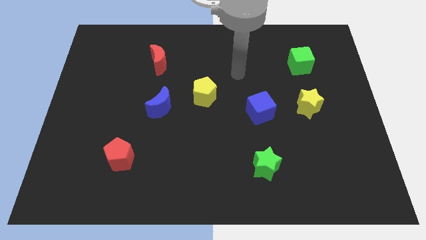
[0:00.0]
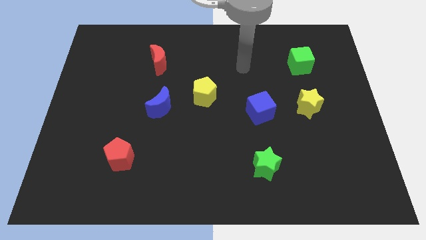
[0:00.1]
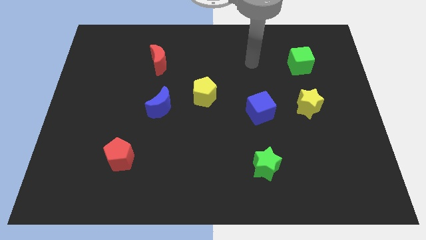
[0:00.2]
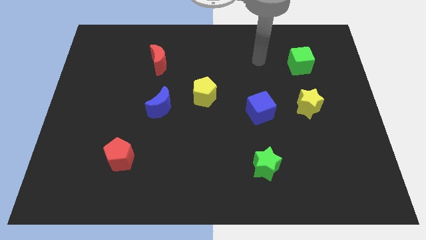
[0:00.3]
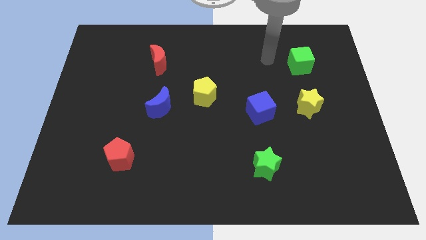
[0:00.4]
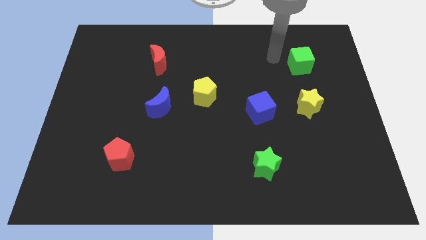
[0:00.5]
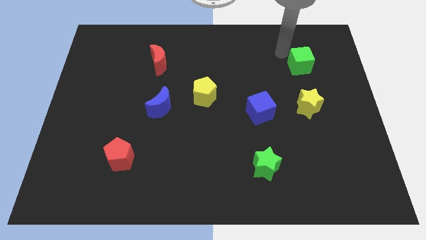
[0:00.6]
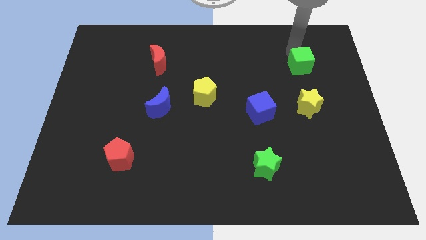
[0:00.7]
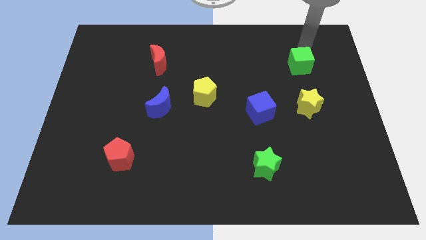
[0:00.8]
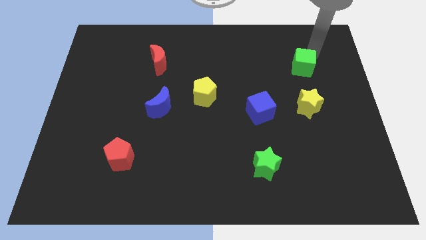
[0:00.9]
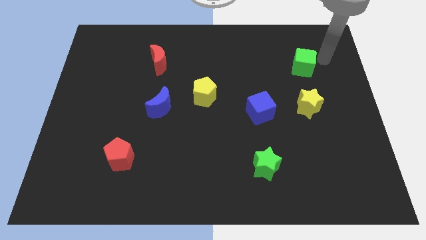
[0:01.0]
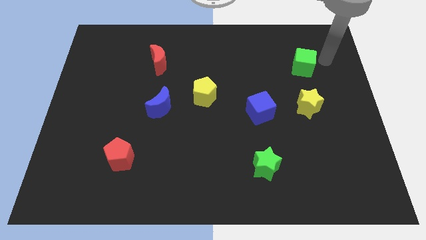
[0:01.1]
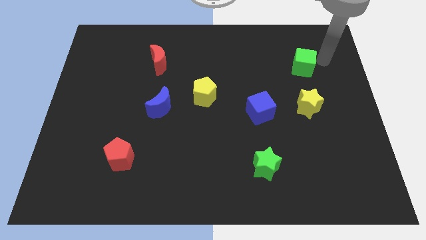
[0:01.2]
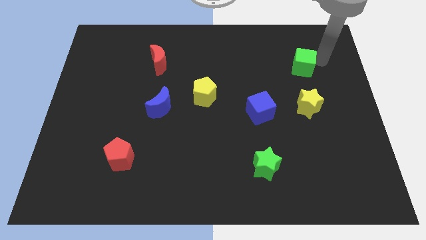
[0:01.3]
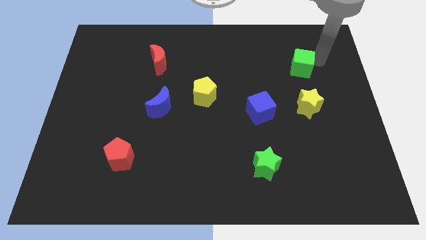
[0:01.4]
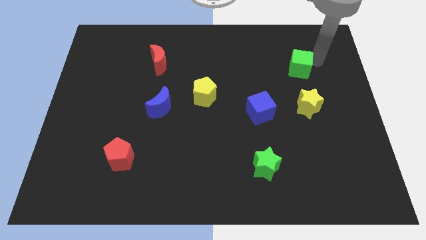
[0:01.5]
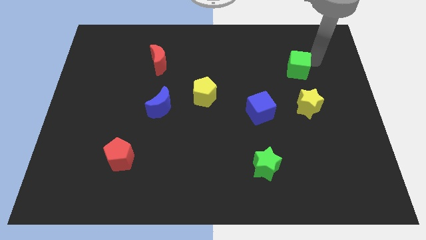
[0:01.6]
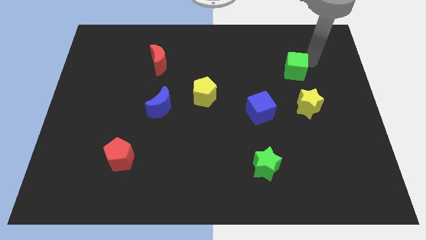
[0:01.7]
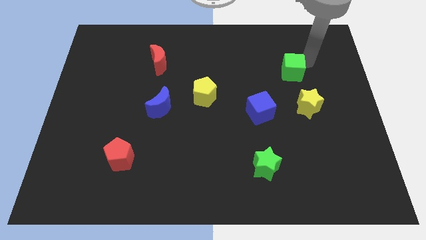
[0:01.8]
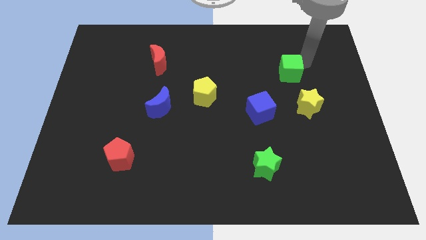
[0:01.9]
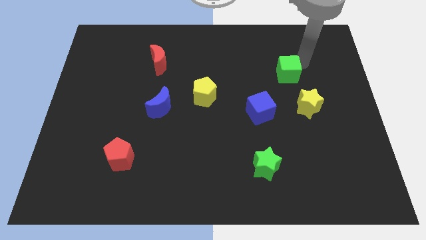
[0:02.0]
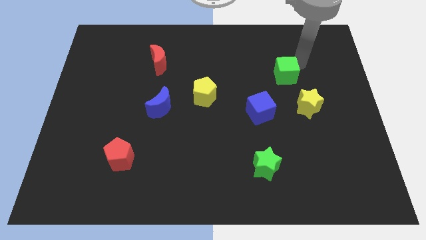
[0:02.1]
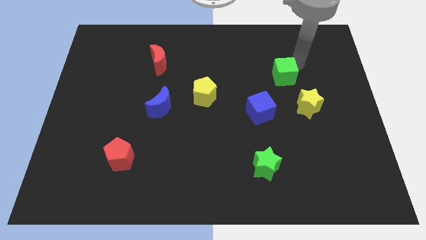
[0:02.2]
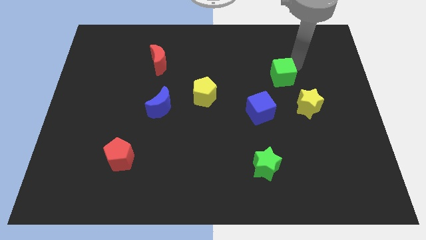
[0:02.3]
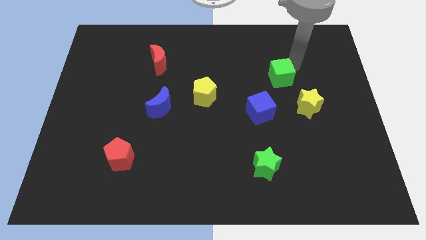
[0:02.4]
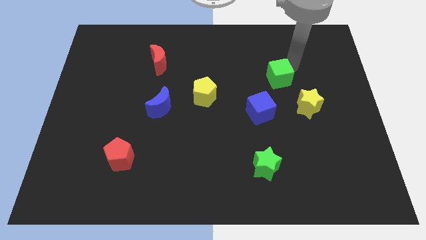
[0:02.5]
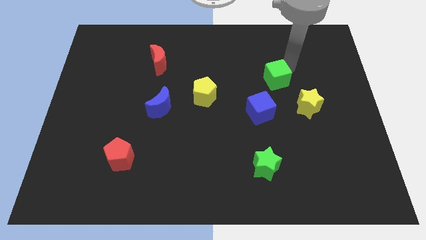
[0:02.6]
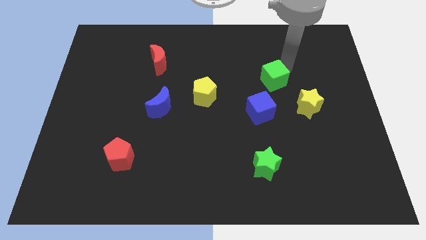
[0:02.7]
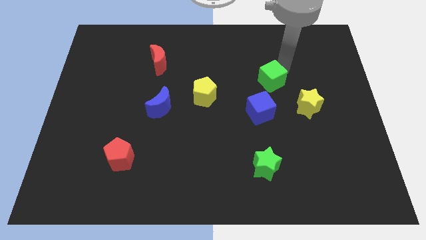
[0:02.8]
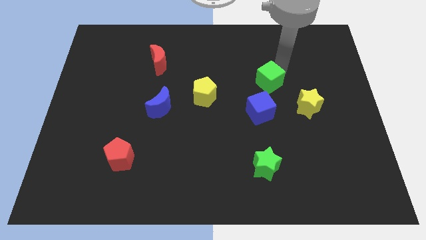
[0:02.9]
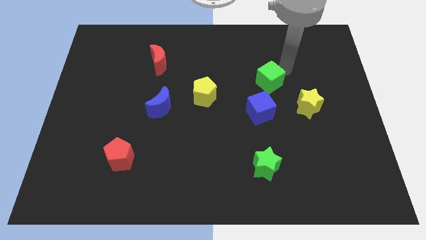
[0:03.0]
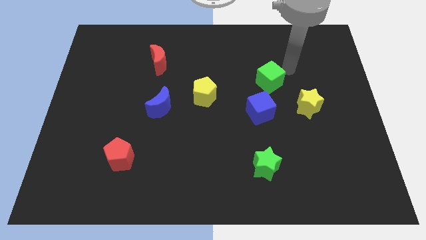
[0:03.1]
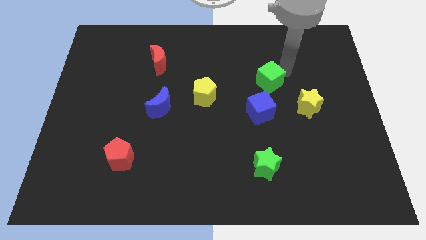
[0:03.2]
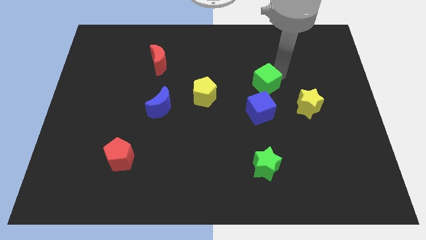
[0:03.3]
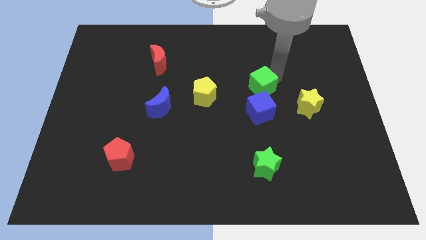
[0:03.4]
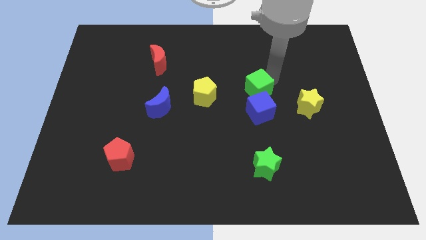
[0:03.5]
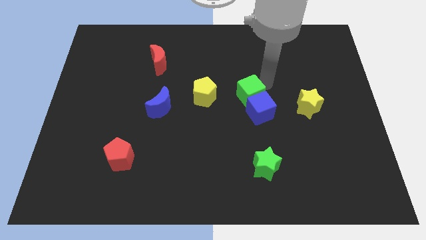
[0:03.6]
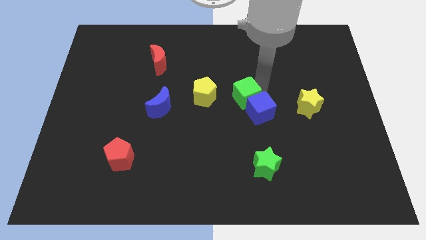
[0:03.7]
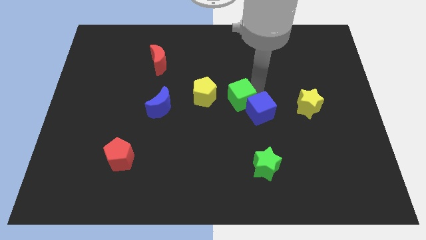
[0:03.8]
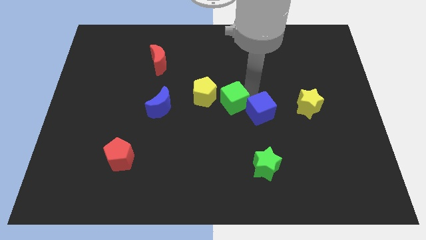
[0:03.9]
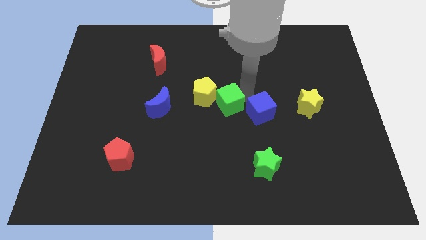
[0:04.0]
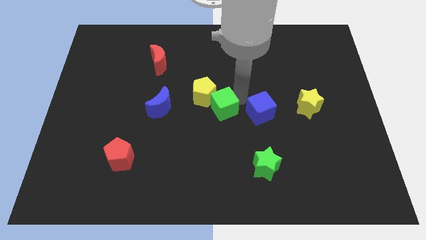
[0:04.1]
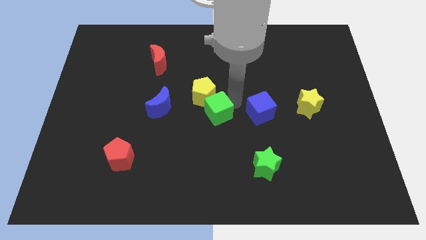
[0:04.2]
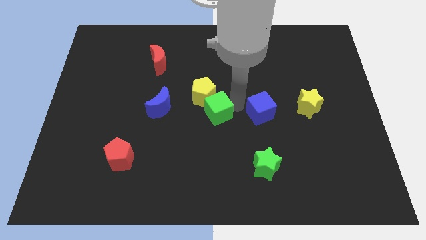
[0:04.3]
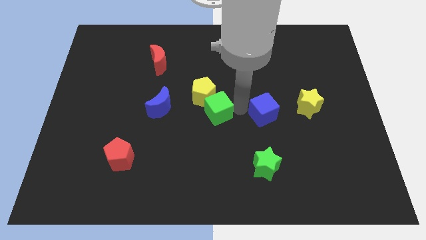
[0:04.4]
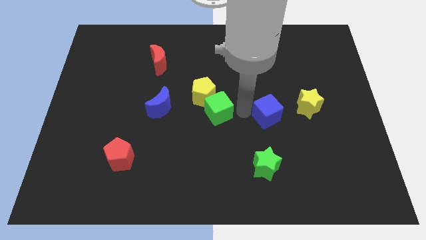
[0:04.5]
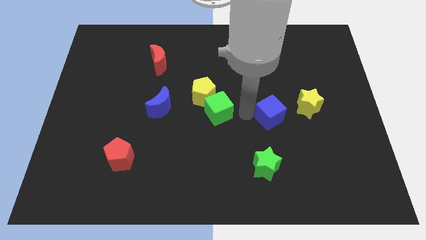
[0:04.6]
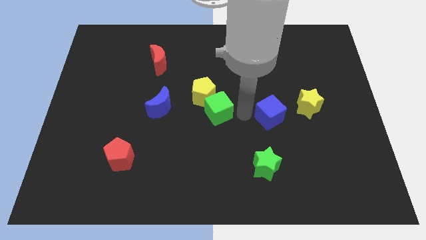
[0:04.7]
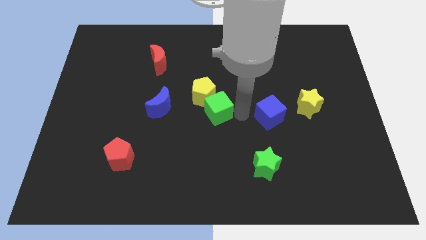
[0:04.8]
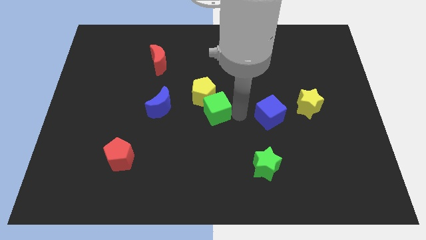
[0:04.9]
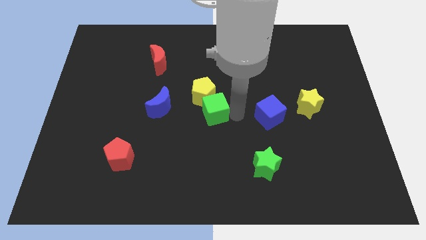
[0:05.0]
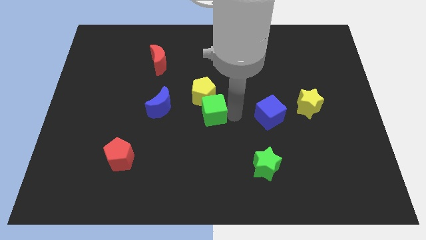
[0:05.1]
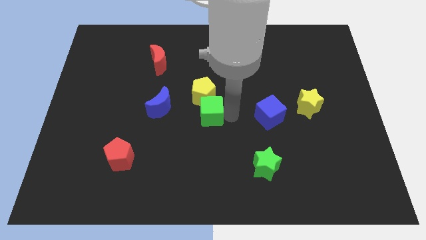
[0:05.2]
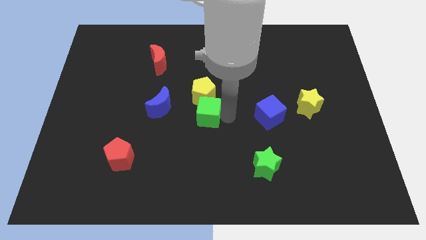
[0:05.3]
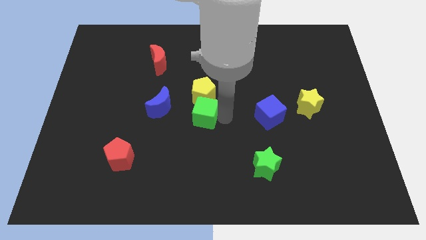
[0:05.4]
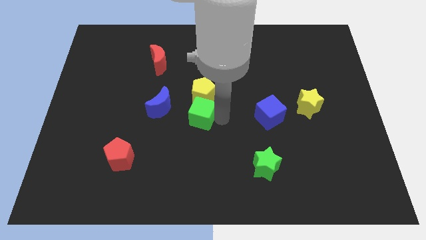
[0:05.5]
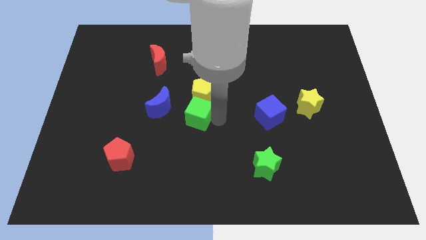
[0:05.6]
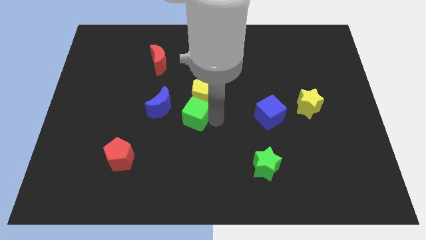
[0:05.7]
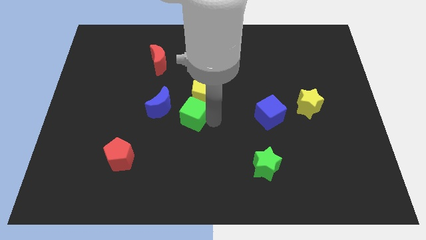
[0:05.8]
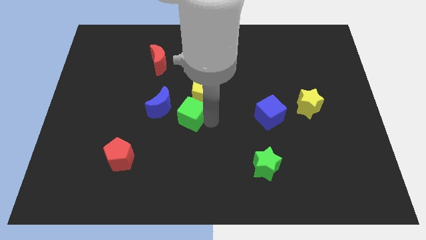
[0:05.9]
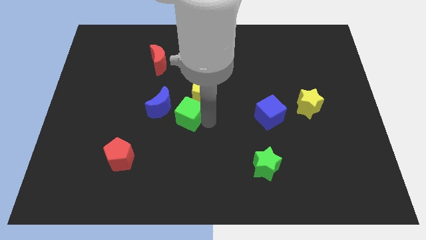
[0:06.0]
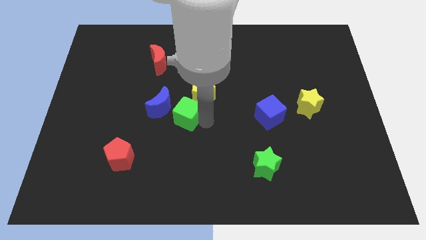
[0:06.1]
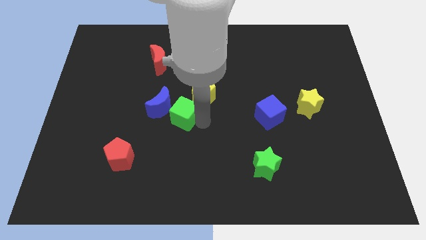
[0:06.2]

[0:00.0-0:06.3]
push the green cube to the blue moon

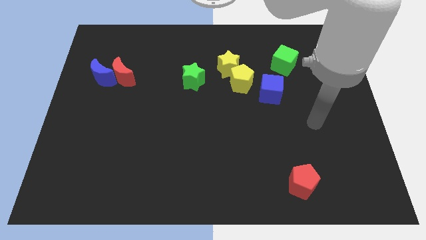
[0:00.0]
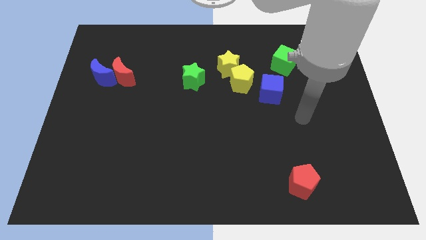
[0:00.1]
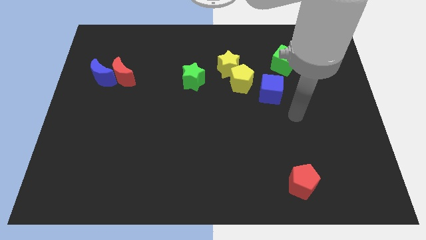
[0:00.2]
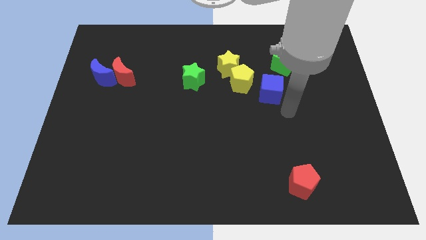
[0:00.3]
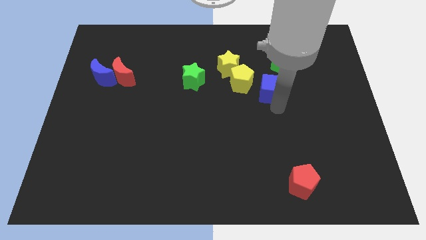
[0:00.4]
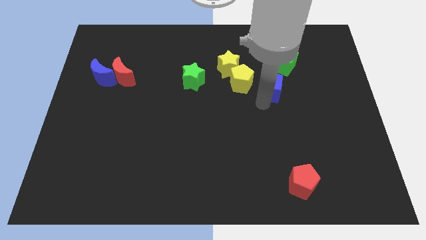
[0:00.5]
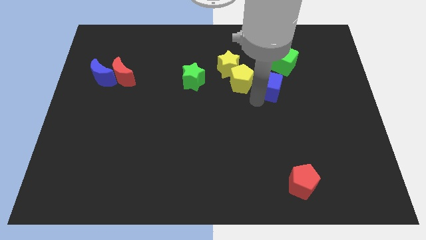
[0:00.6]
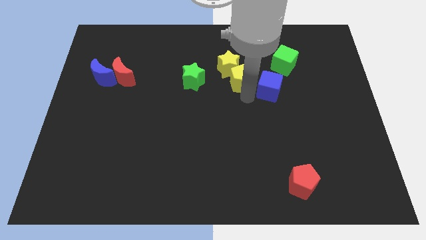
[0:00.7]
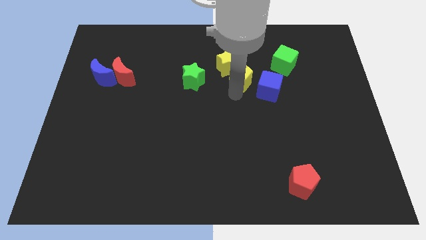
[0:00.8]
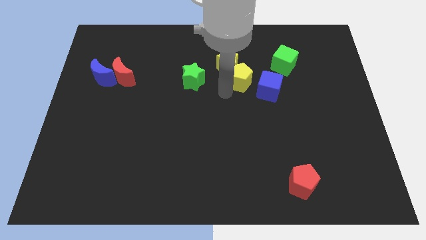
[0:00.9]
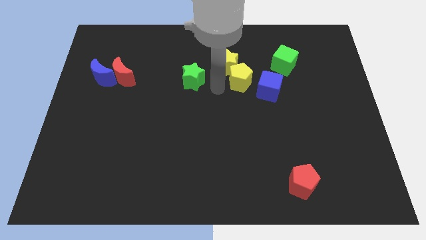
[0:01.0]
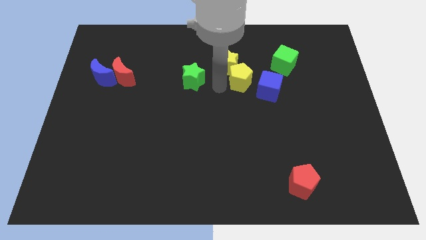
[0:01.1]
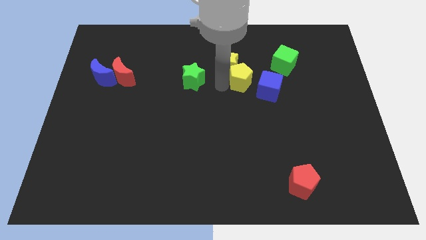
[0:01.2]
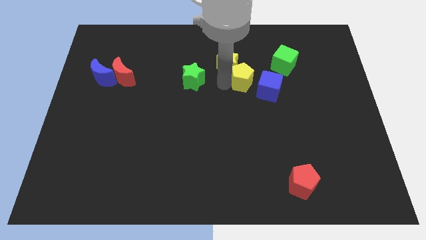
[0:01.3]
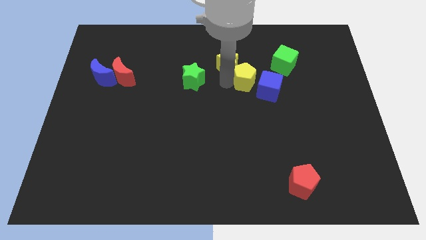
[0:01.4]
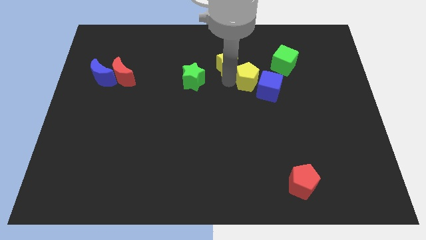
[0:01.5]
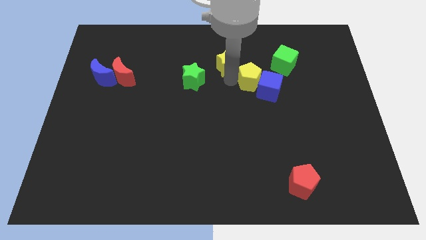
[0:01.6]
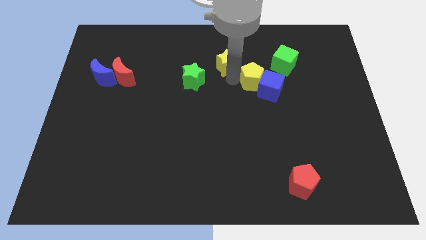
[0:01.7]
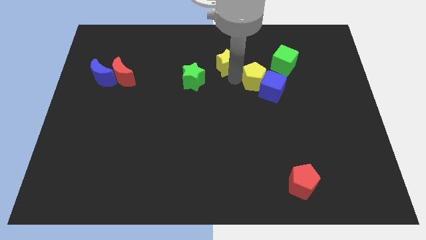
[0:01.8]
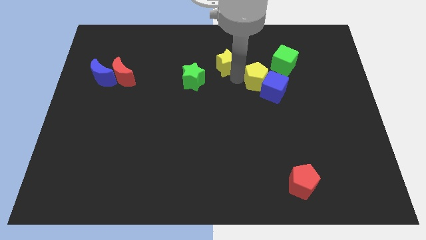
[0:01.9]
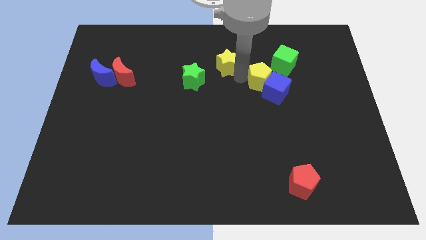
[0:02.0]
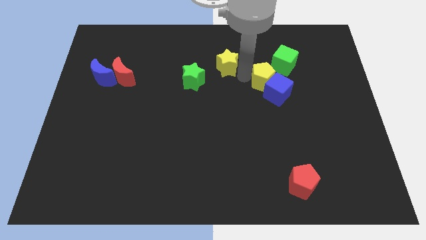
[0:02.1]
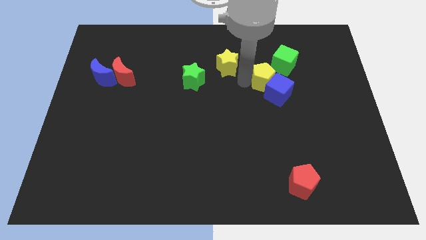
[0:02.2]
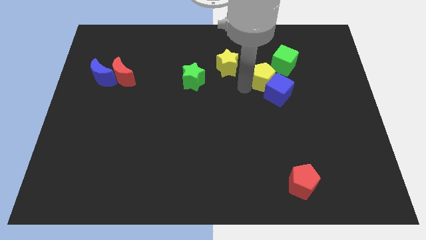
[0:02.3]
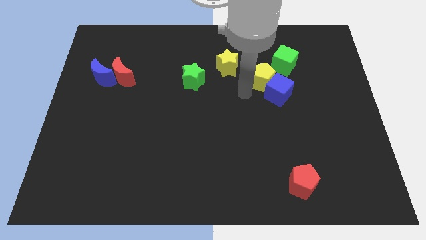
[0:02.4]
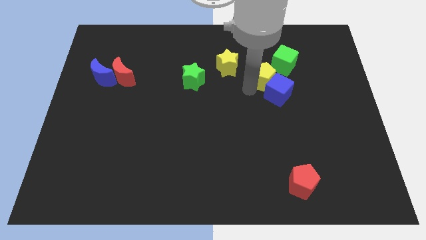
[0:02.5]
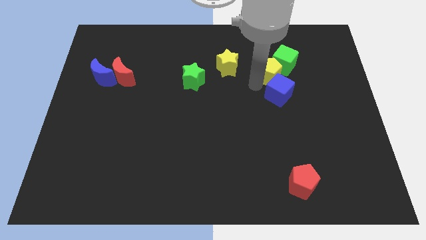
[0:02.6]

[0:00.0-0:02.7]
slide the yellow pentagon towards the green cube
